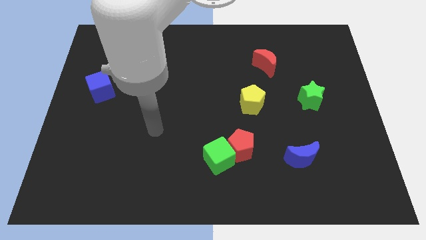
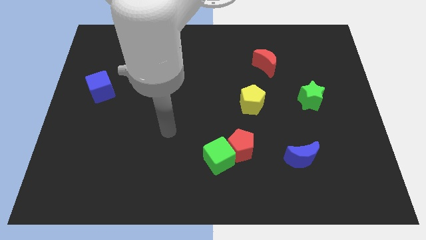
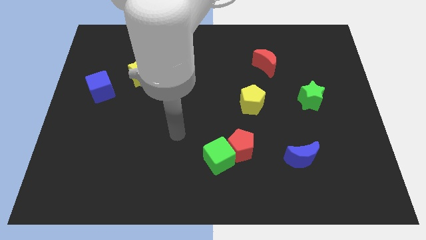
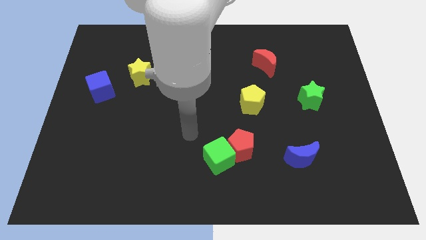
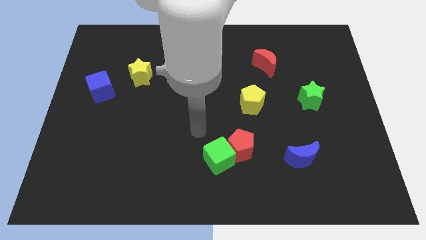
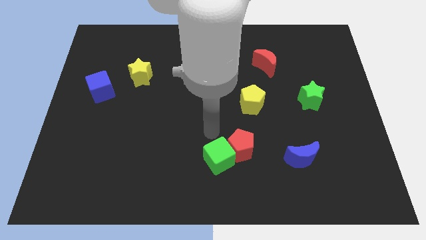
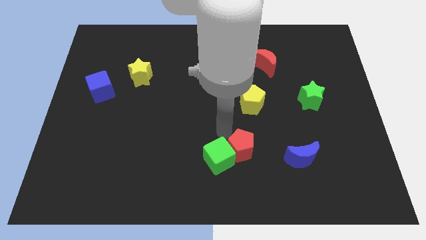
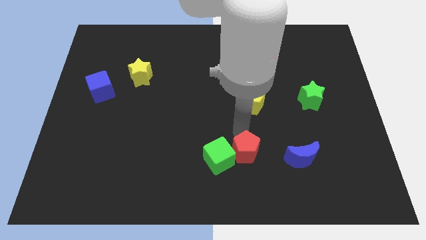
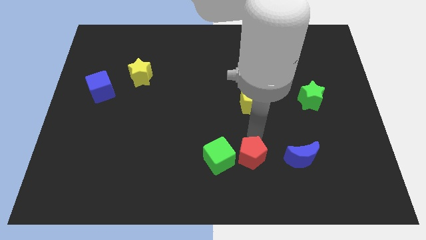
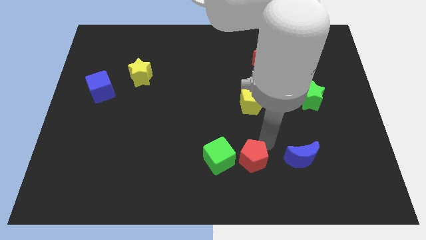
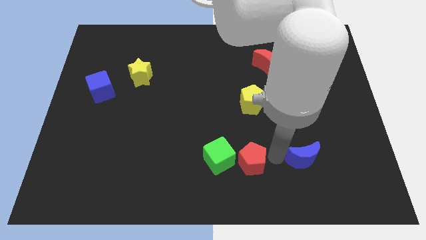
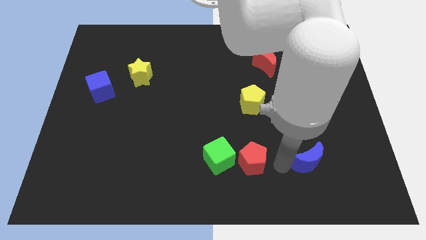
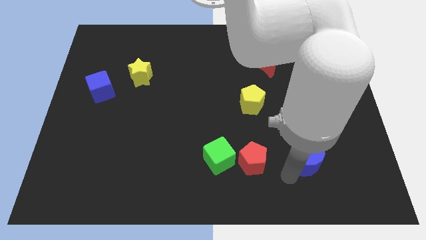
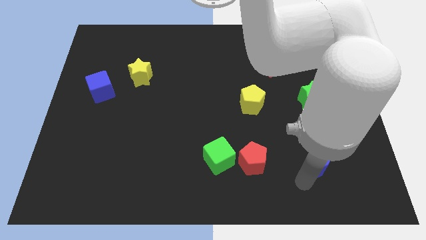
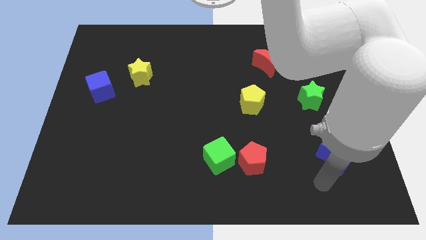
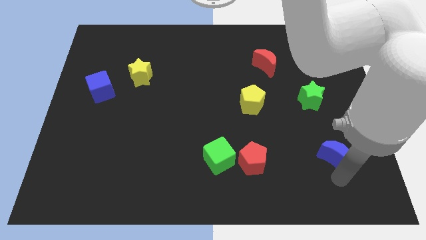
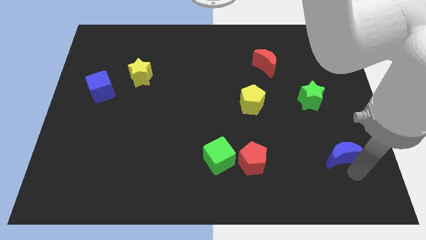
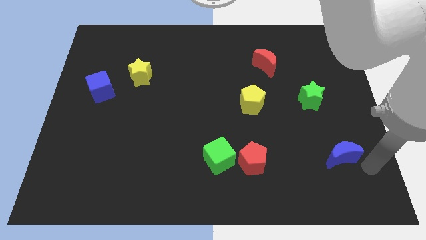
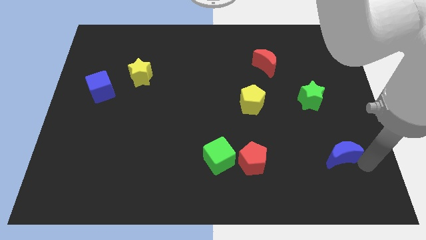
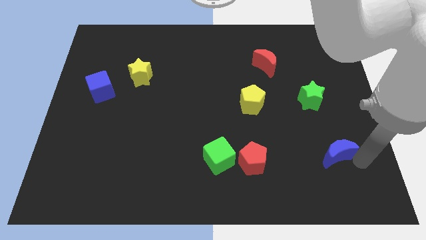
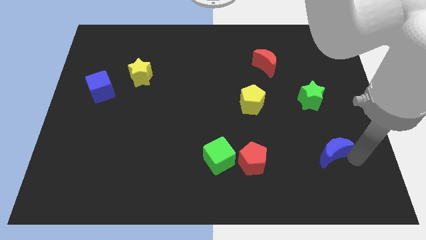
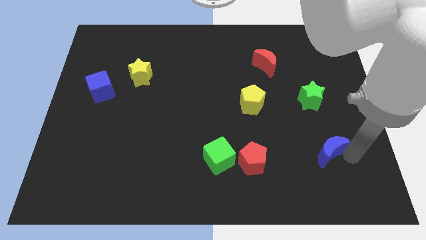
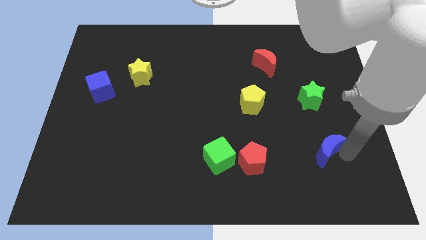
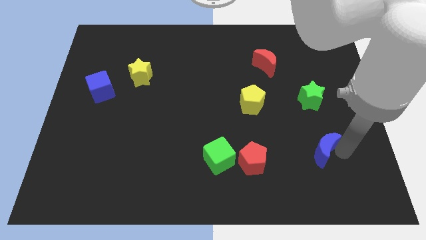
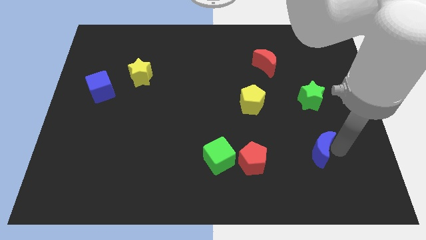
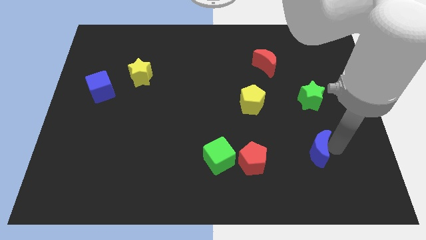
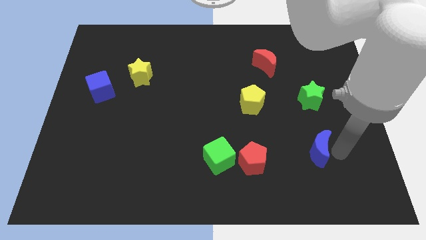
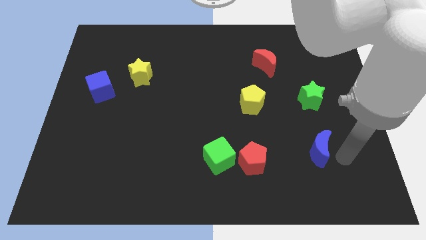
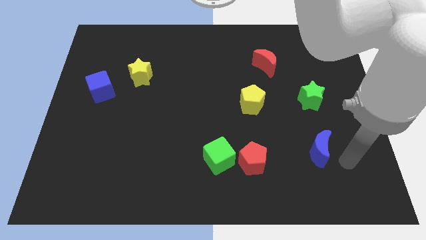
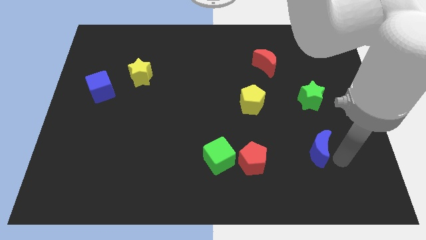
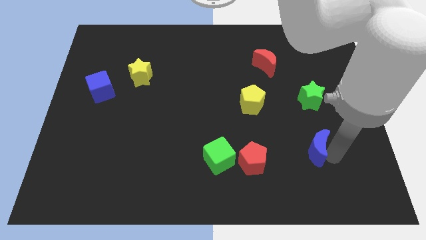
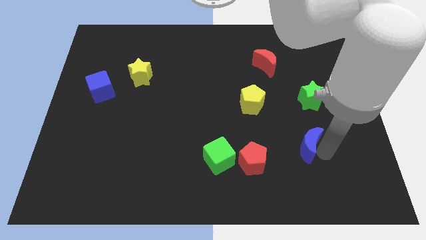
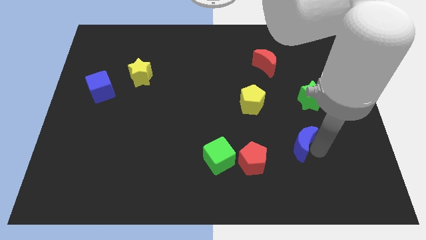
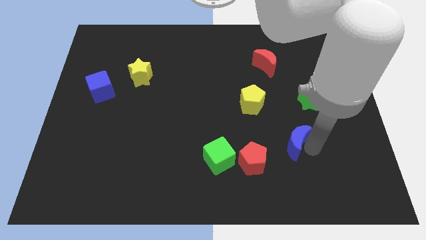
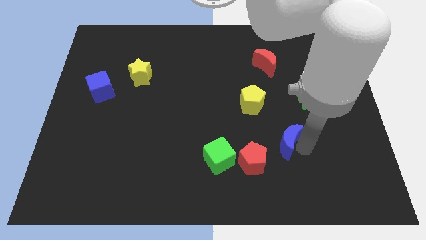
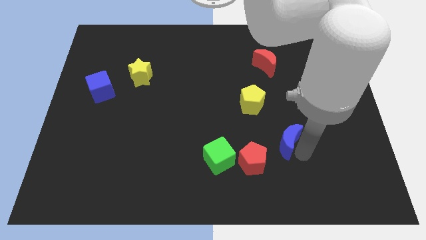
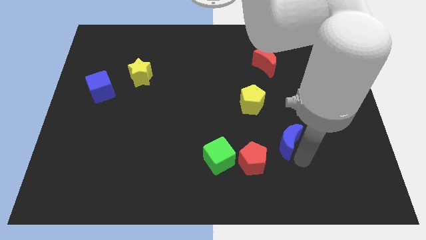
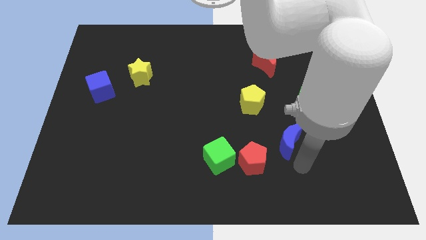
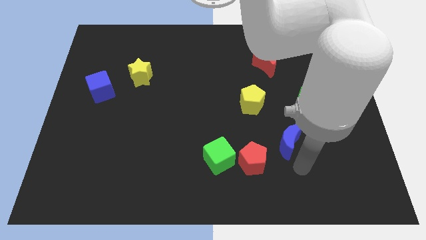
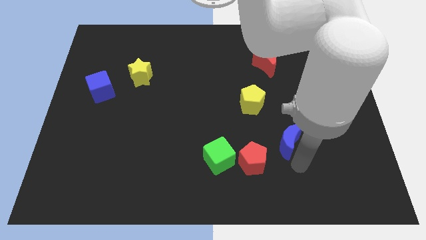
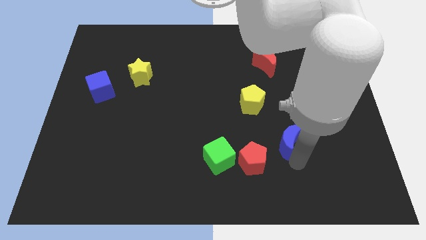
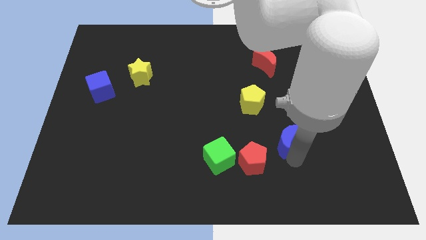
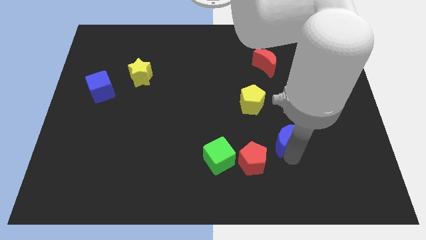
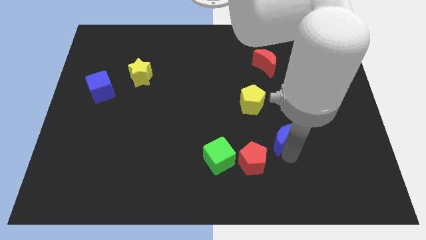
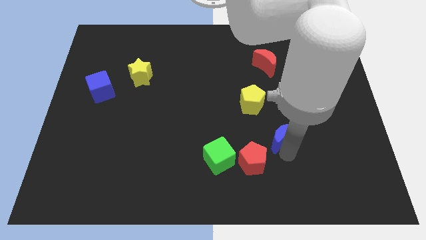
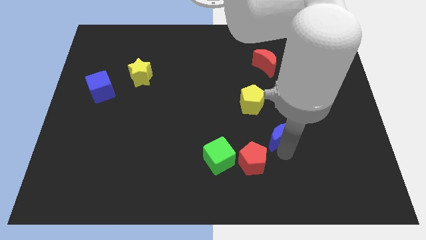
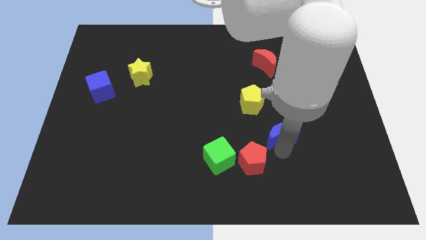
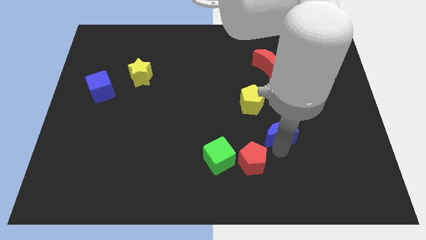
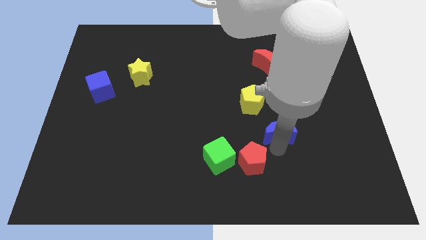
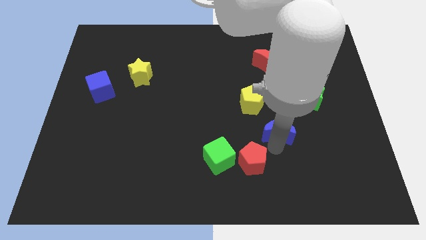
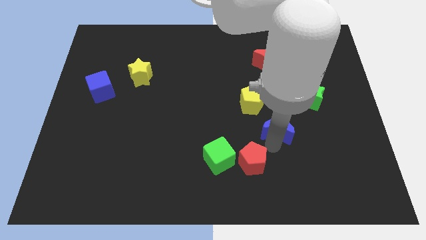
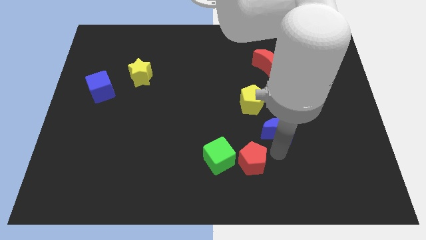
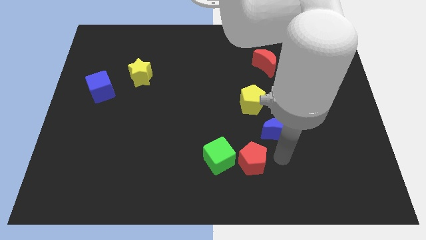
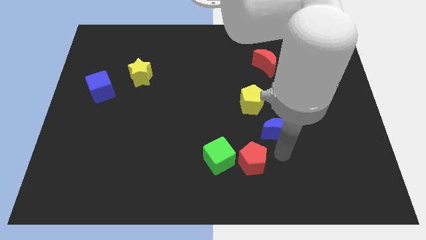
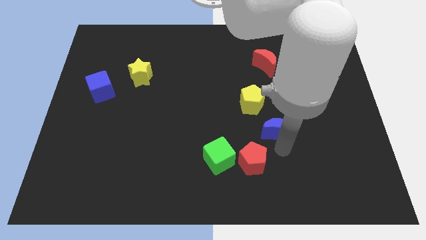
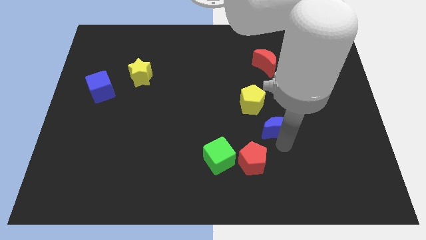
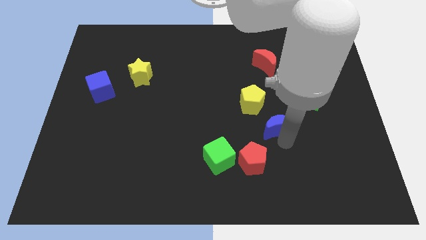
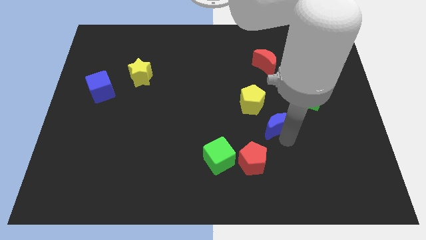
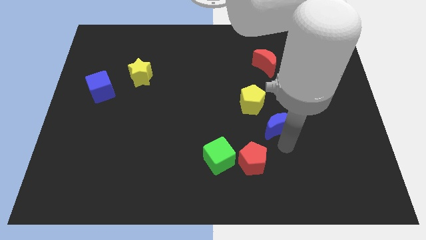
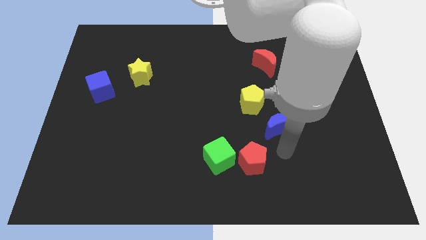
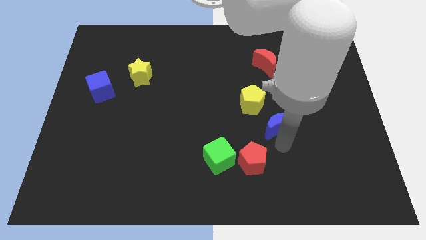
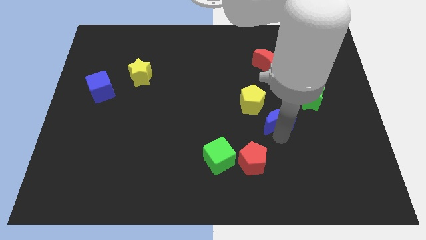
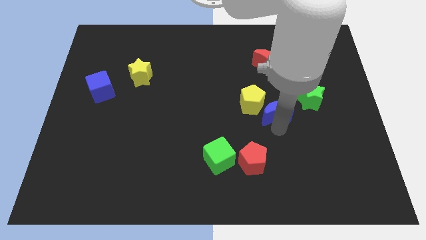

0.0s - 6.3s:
slide the blue moon to the bottom side of the red moon

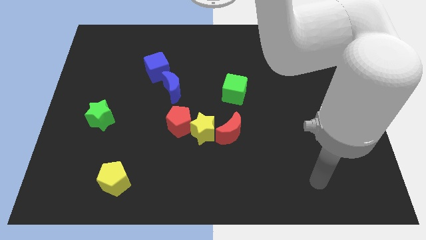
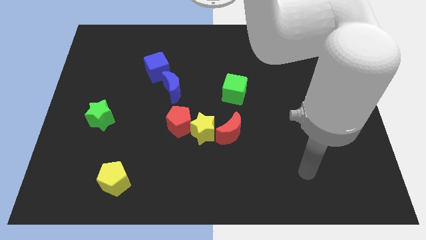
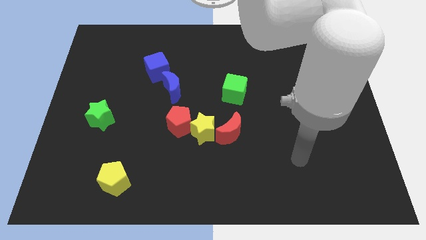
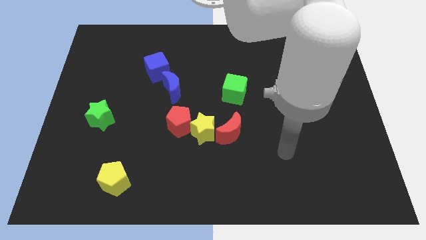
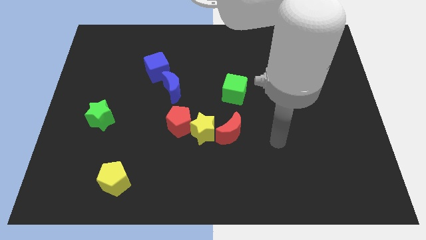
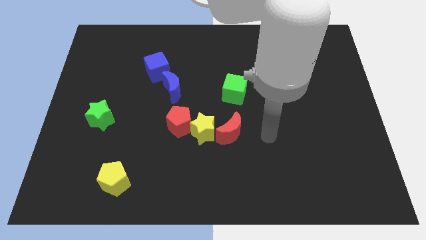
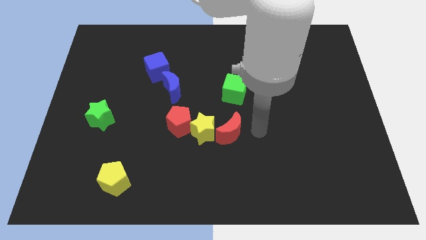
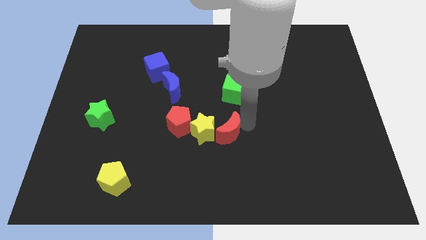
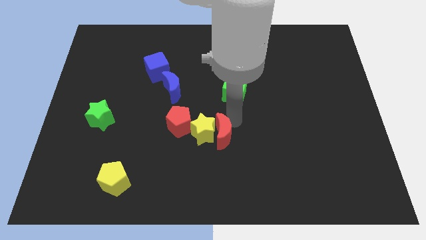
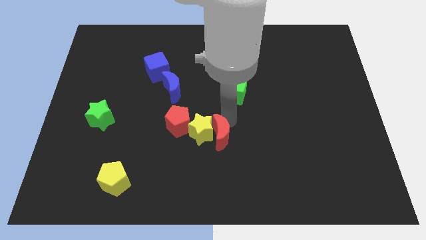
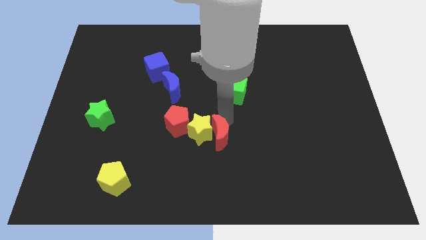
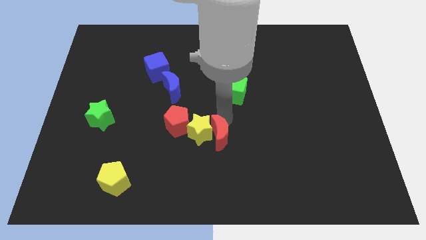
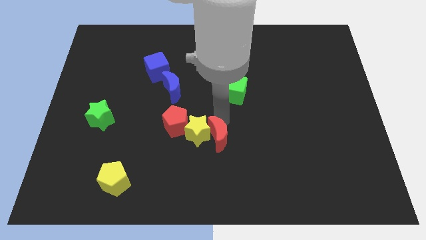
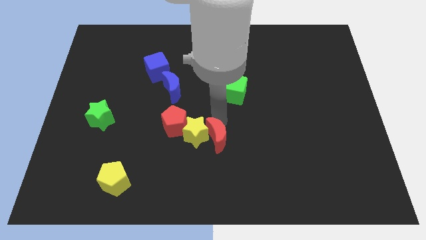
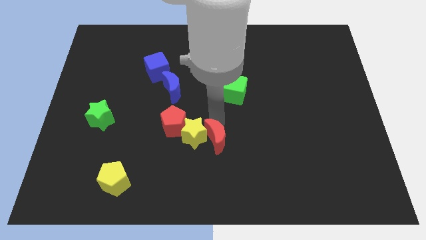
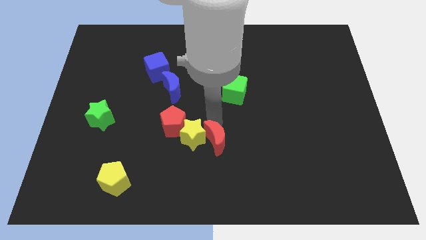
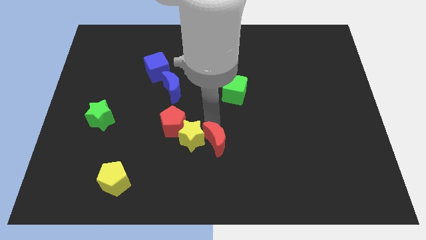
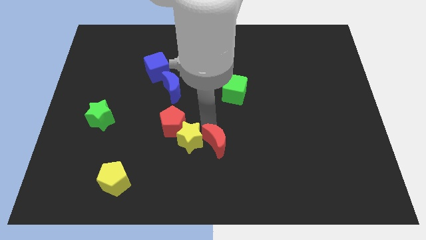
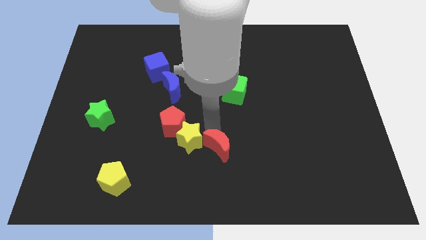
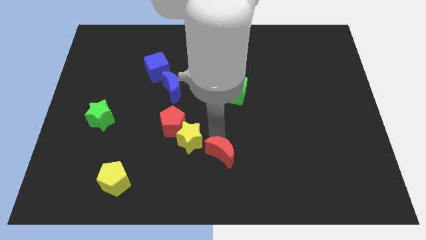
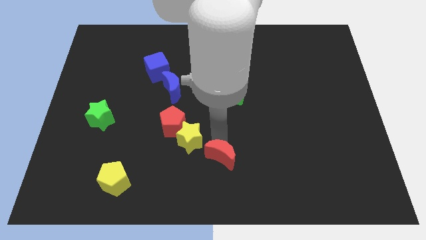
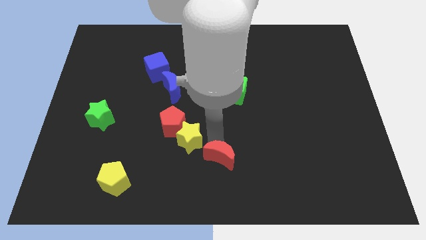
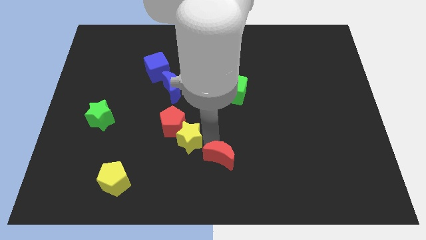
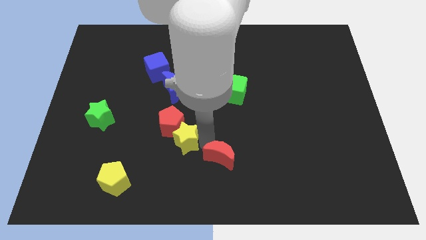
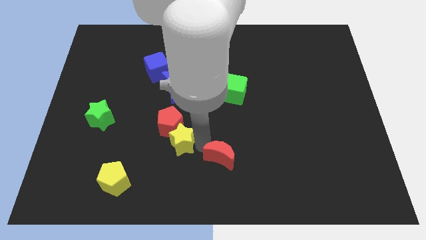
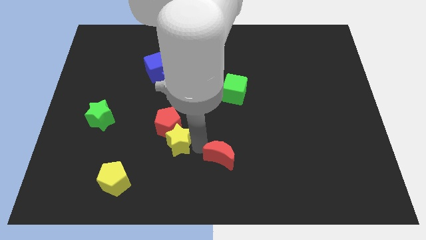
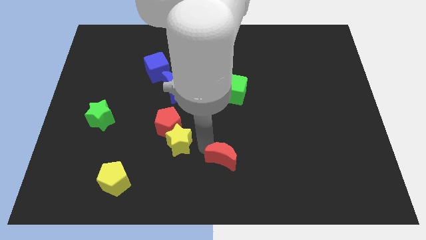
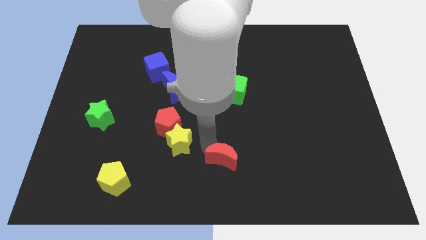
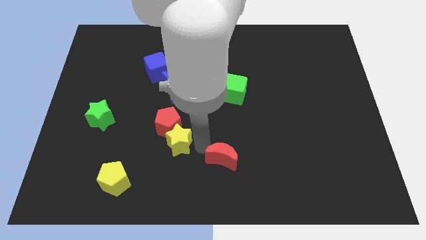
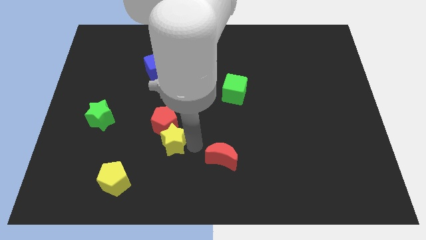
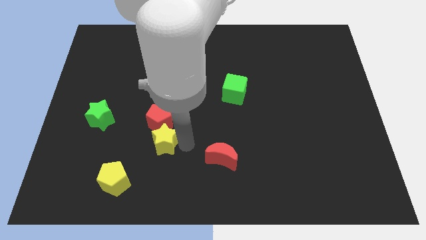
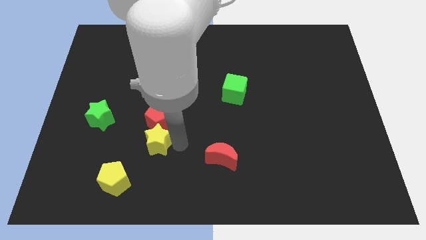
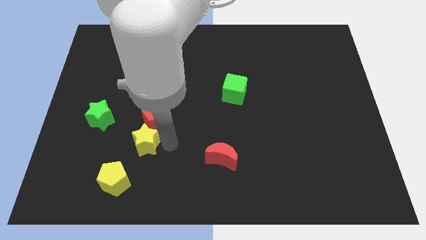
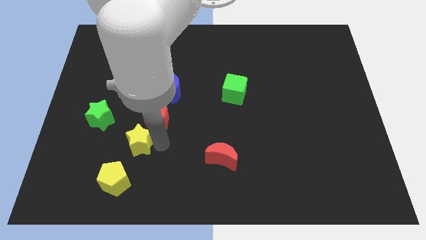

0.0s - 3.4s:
move the yellow star to the bottom right of the green star
